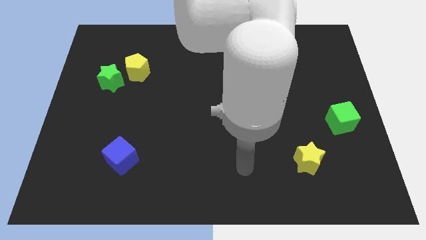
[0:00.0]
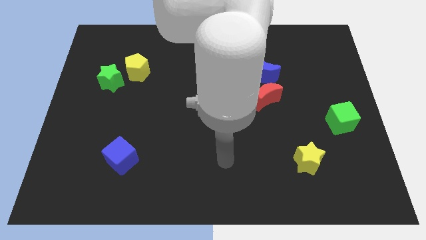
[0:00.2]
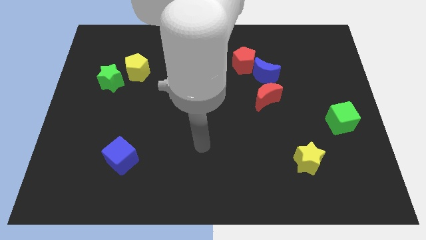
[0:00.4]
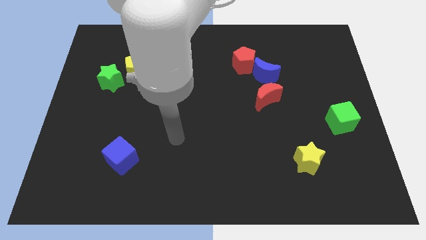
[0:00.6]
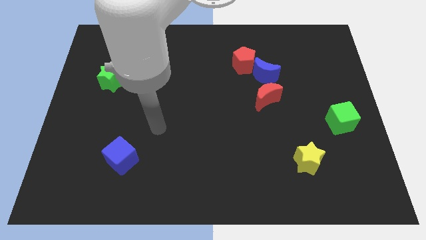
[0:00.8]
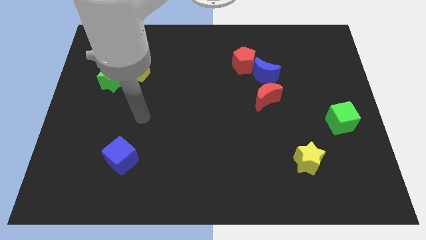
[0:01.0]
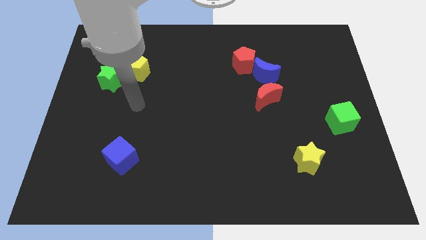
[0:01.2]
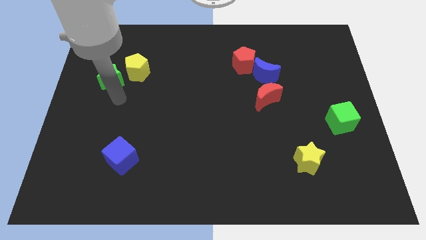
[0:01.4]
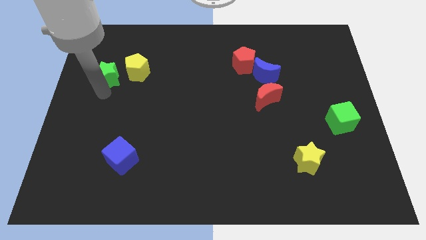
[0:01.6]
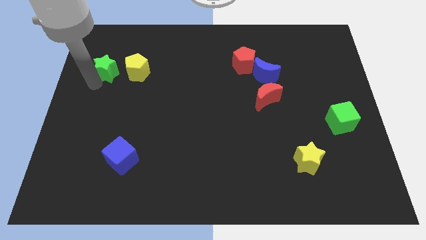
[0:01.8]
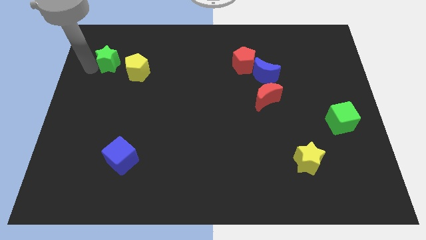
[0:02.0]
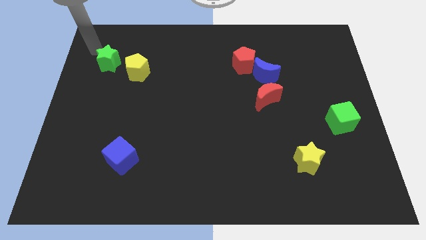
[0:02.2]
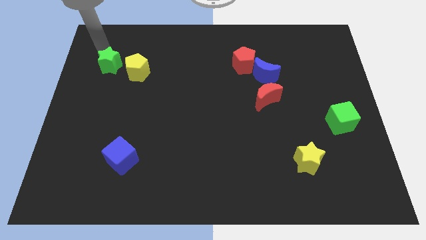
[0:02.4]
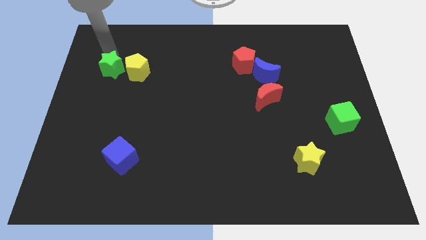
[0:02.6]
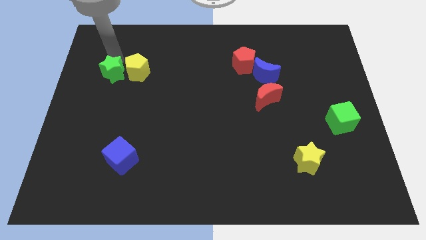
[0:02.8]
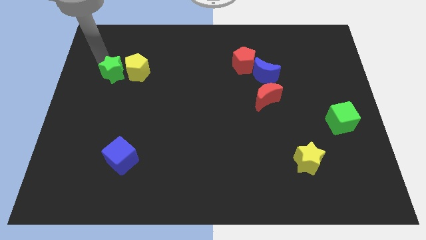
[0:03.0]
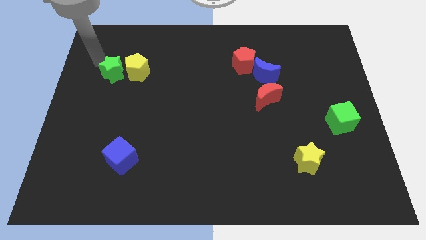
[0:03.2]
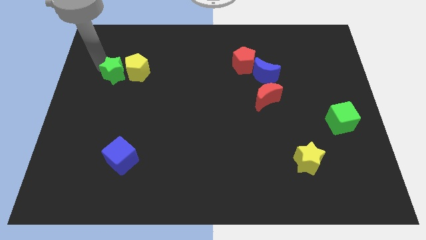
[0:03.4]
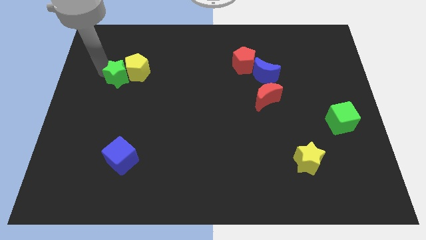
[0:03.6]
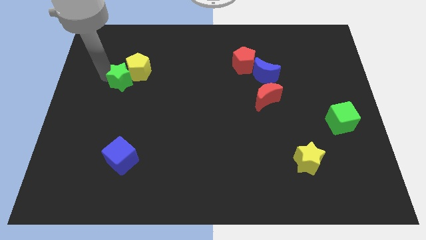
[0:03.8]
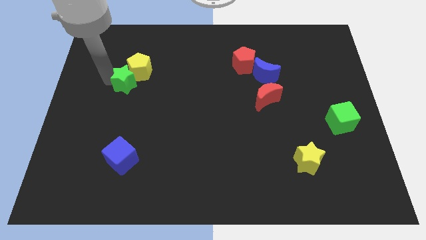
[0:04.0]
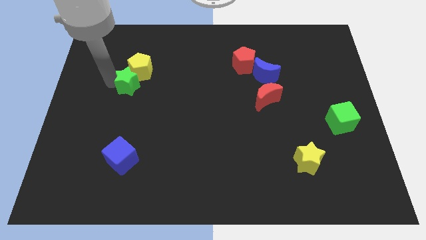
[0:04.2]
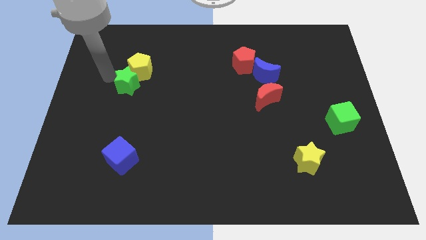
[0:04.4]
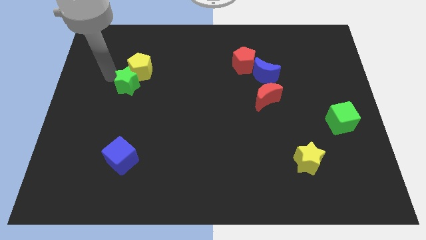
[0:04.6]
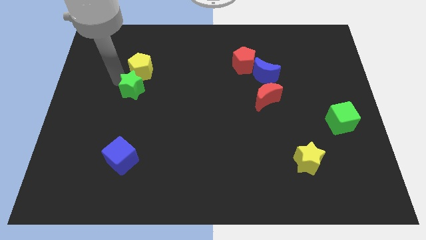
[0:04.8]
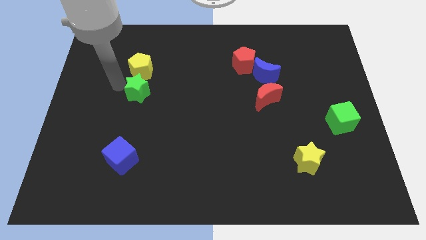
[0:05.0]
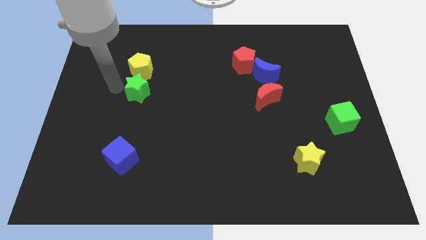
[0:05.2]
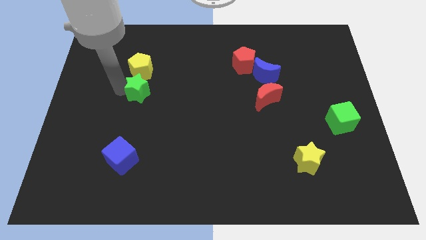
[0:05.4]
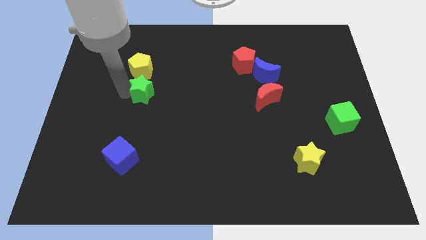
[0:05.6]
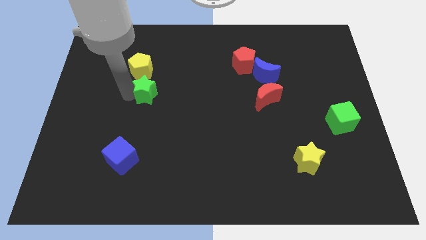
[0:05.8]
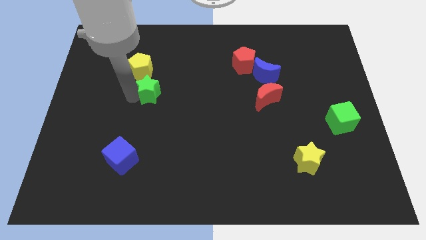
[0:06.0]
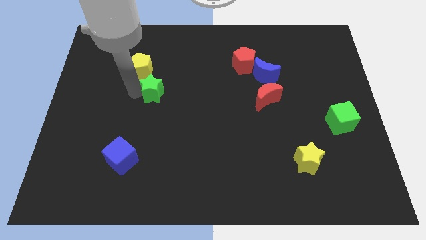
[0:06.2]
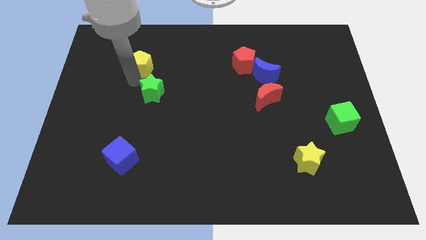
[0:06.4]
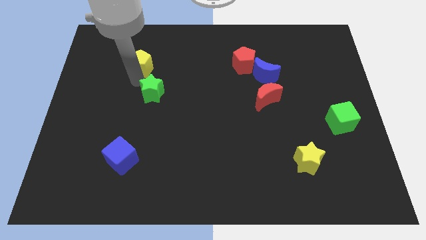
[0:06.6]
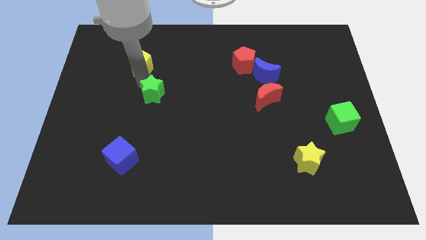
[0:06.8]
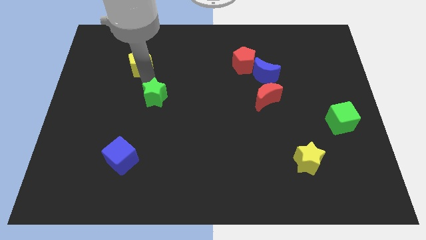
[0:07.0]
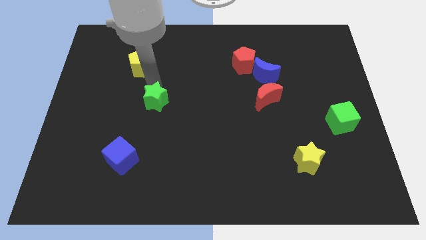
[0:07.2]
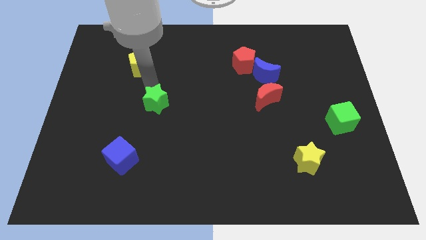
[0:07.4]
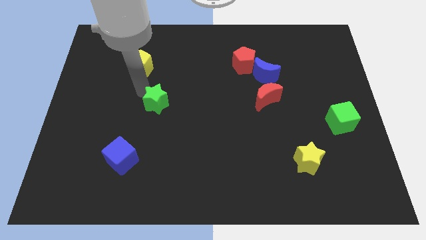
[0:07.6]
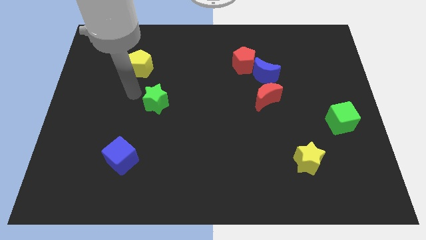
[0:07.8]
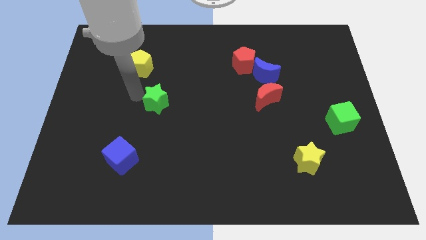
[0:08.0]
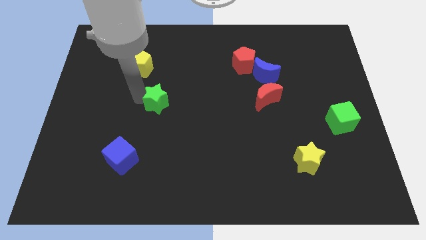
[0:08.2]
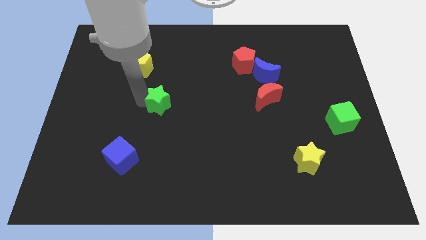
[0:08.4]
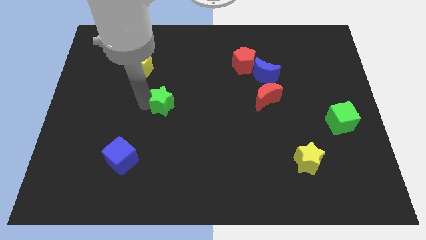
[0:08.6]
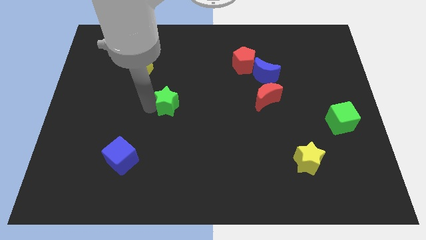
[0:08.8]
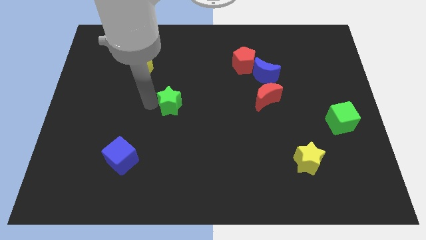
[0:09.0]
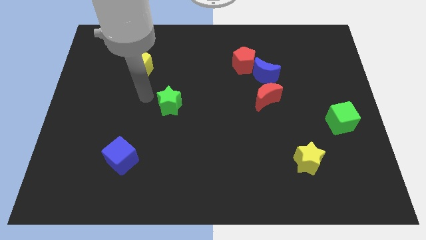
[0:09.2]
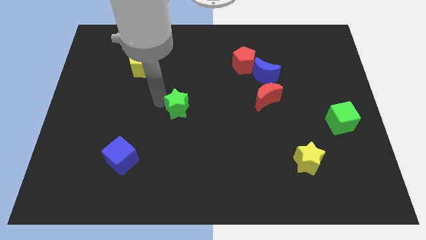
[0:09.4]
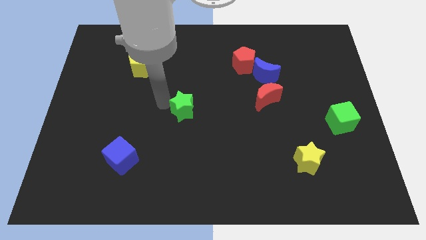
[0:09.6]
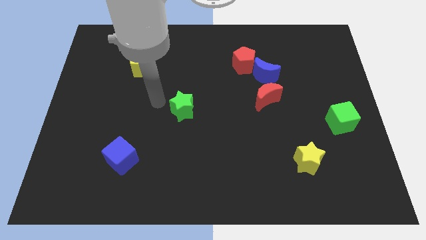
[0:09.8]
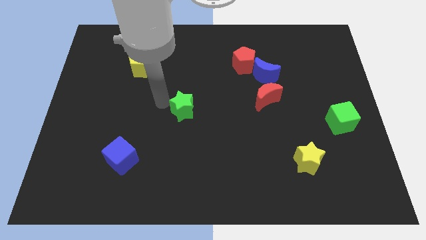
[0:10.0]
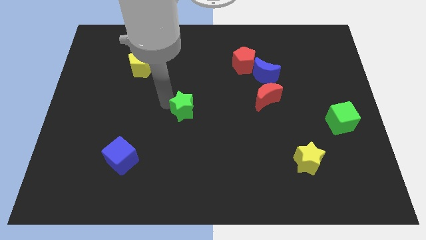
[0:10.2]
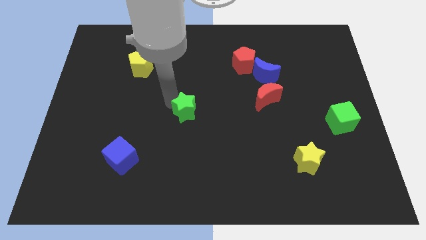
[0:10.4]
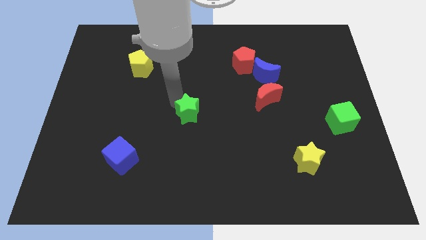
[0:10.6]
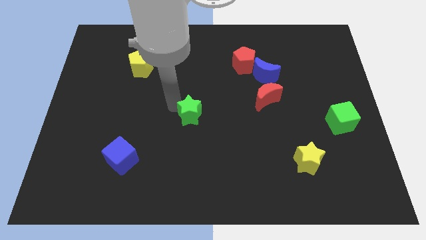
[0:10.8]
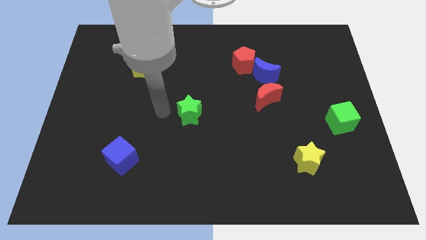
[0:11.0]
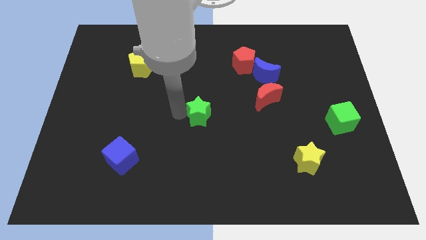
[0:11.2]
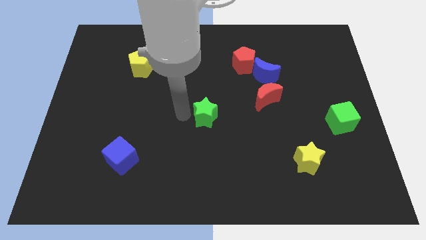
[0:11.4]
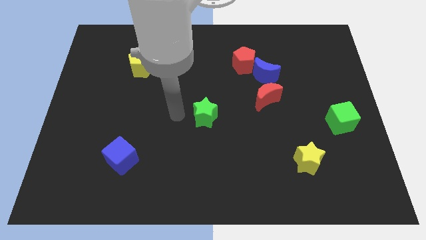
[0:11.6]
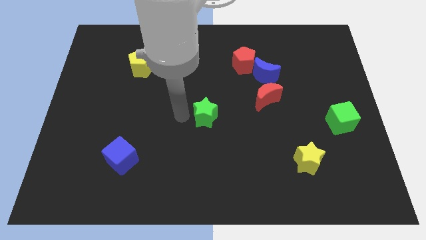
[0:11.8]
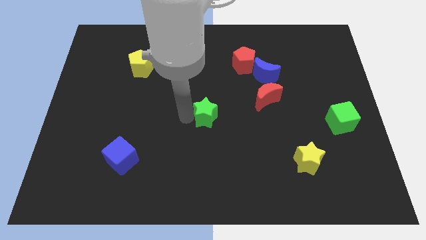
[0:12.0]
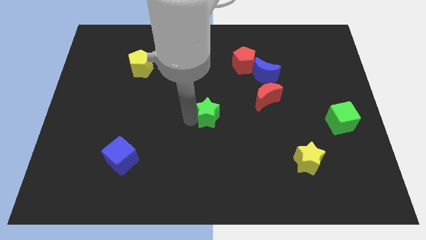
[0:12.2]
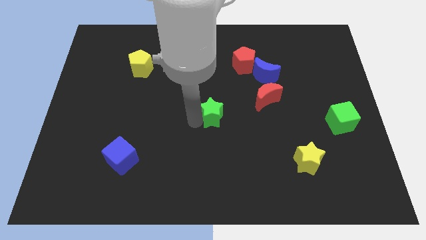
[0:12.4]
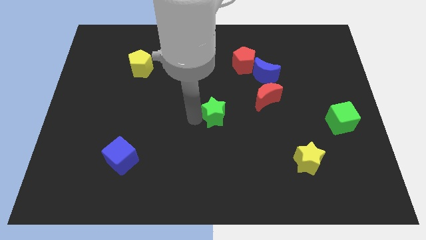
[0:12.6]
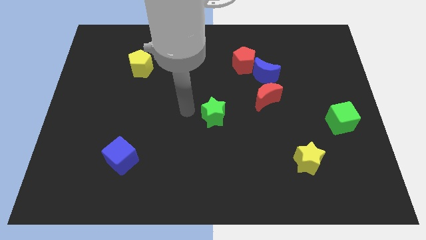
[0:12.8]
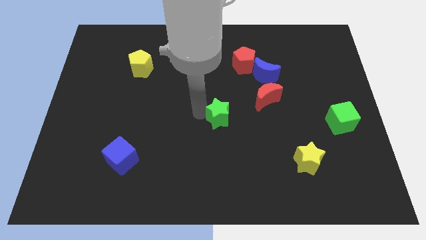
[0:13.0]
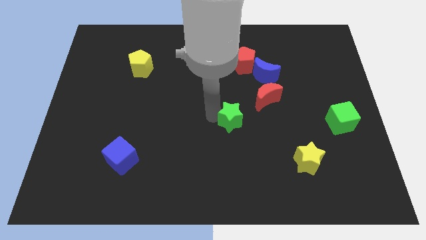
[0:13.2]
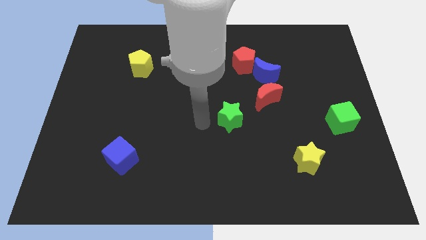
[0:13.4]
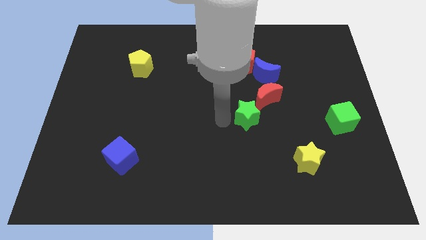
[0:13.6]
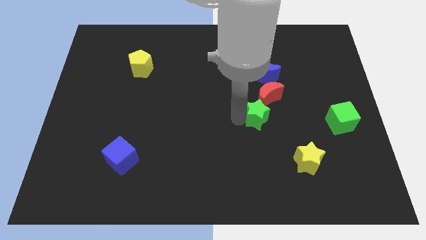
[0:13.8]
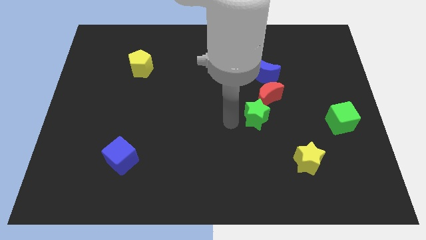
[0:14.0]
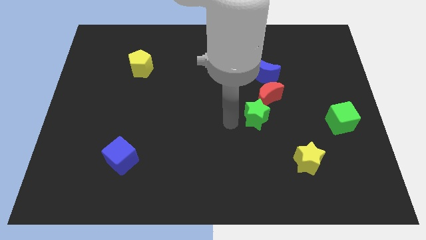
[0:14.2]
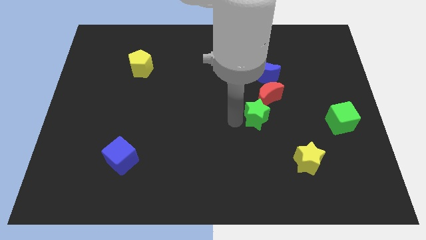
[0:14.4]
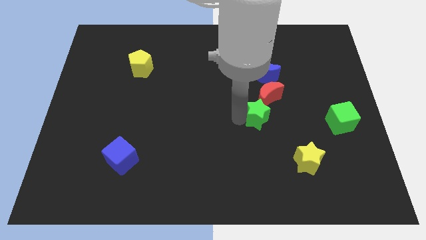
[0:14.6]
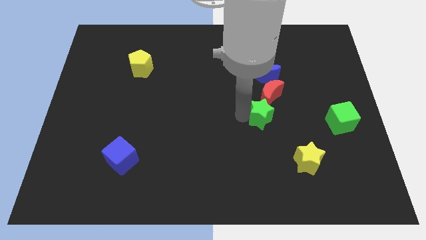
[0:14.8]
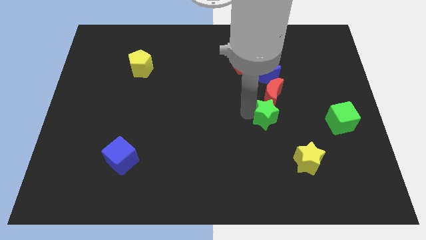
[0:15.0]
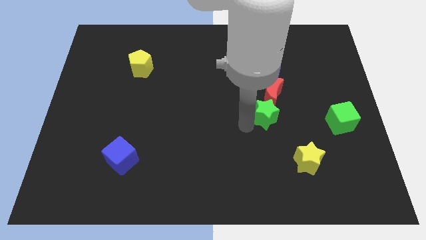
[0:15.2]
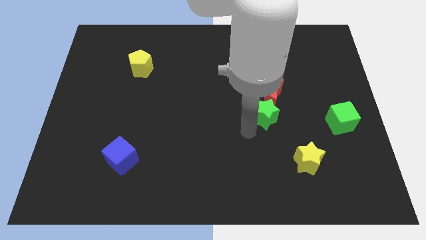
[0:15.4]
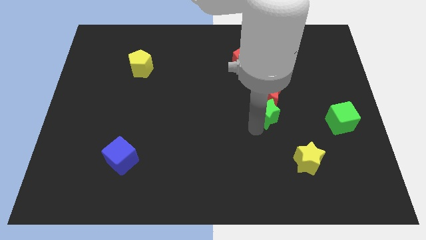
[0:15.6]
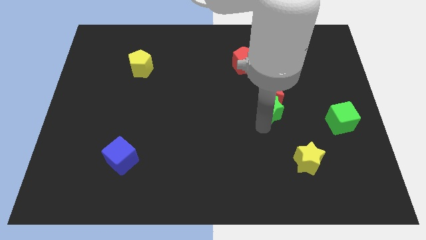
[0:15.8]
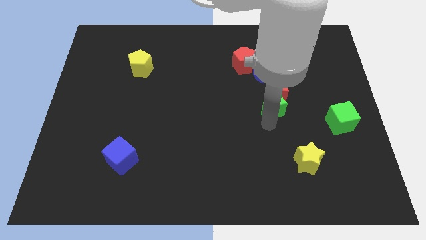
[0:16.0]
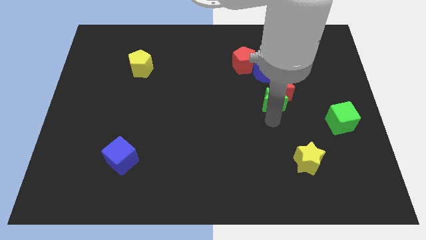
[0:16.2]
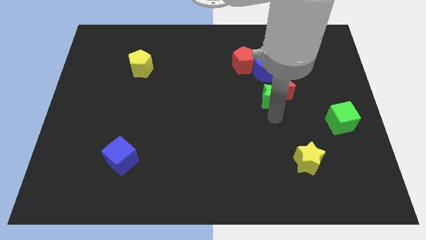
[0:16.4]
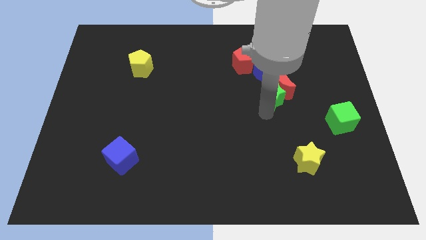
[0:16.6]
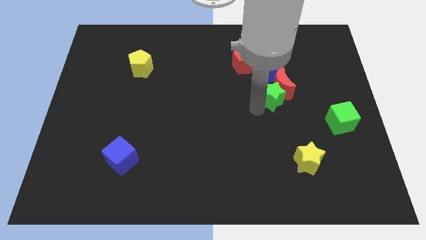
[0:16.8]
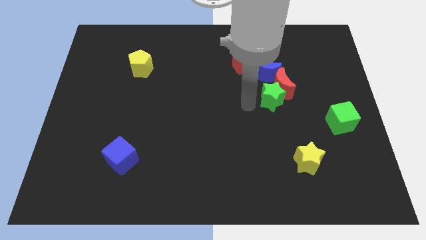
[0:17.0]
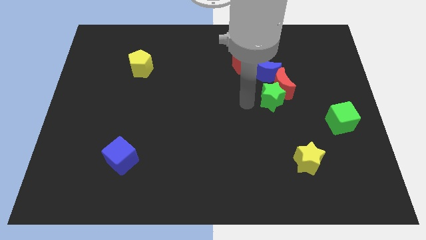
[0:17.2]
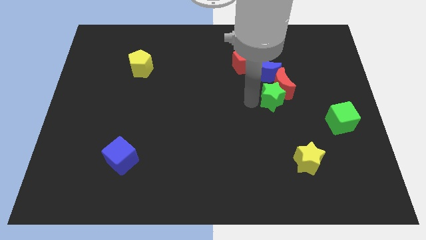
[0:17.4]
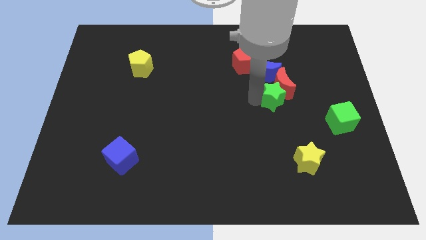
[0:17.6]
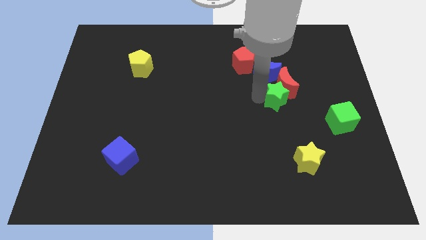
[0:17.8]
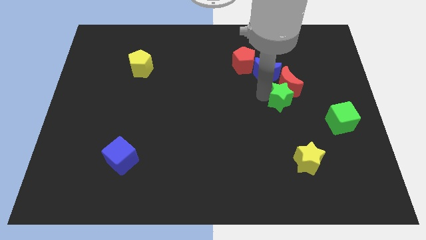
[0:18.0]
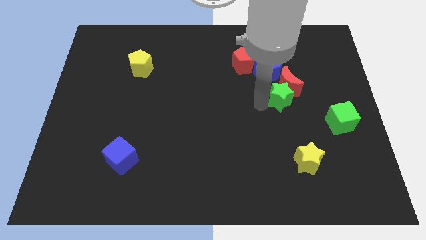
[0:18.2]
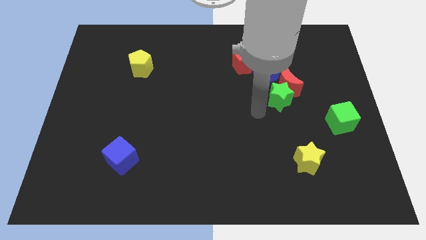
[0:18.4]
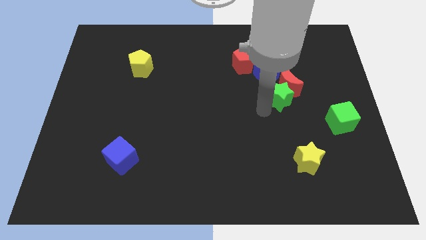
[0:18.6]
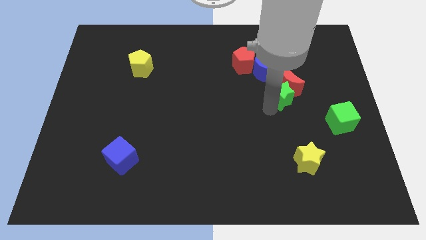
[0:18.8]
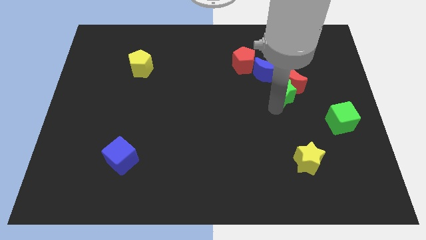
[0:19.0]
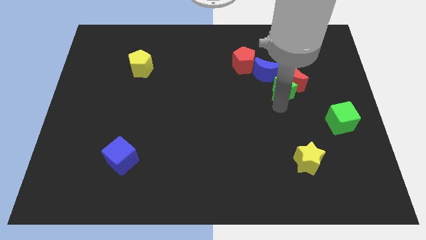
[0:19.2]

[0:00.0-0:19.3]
slide the green star to the bottom right side of the red pentagon
